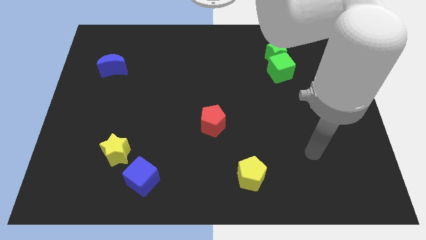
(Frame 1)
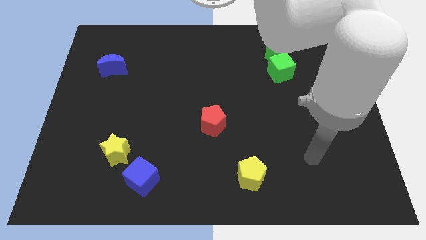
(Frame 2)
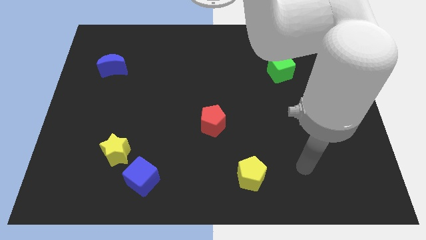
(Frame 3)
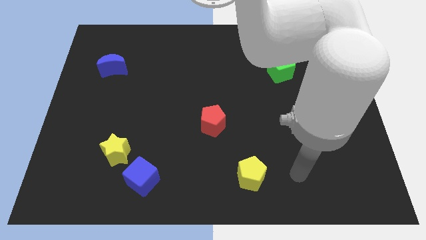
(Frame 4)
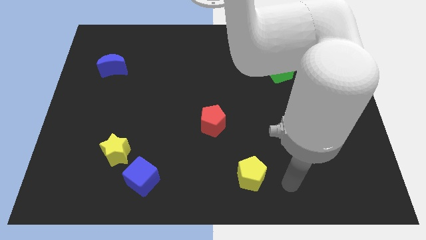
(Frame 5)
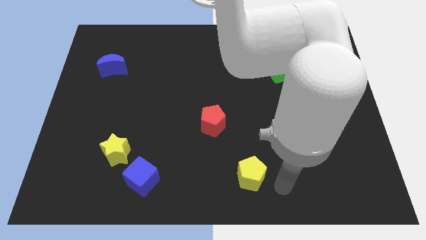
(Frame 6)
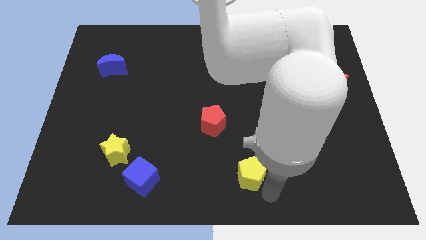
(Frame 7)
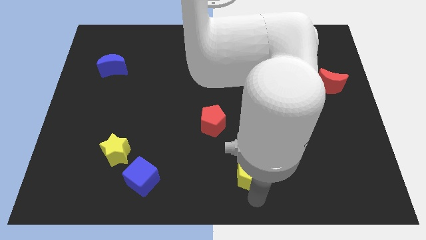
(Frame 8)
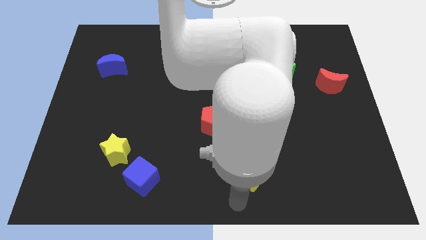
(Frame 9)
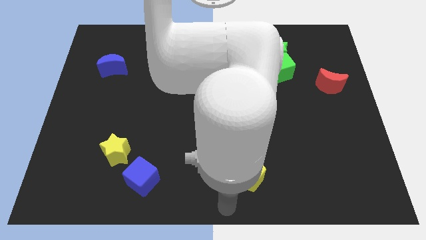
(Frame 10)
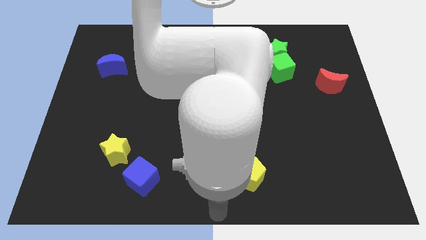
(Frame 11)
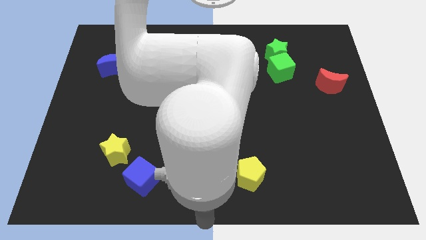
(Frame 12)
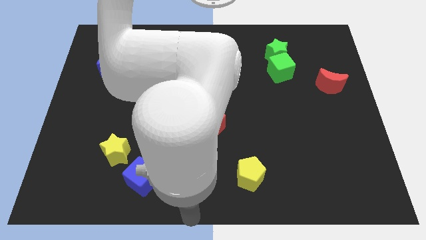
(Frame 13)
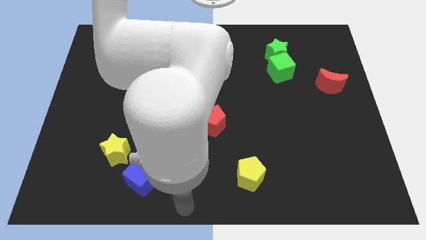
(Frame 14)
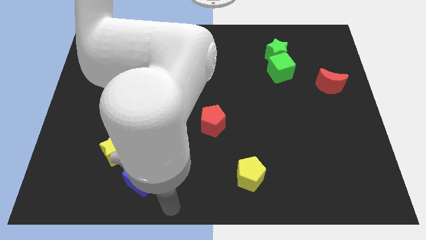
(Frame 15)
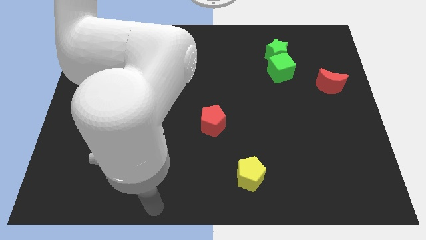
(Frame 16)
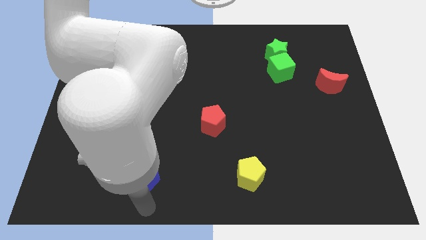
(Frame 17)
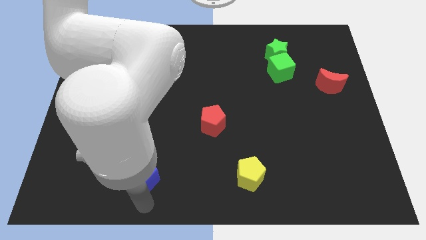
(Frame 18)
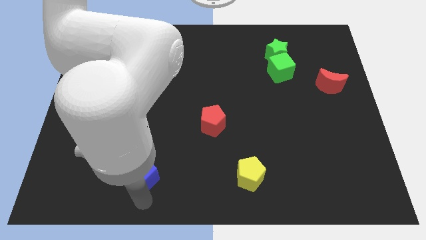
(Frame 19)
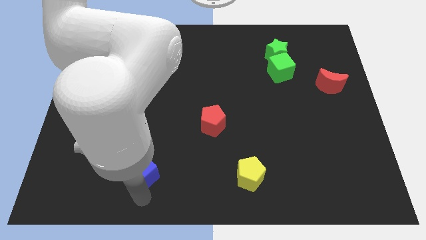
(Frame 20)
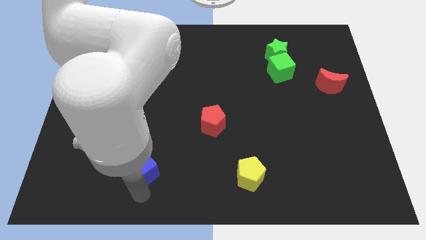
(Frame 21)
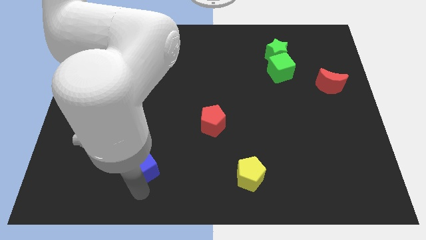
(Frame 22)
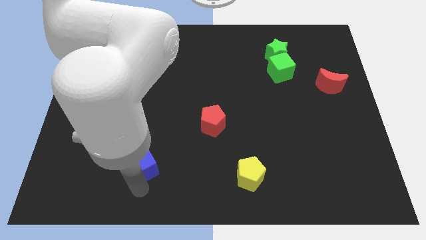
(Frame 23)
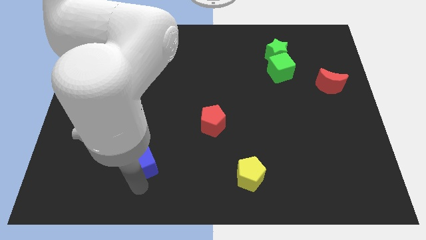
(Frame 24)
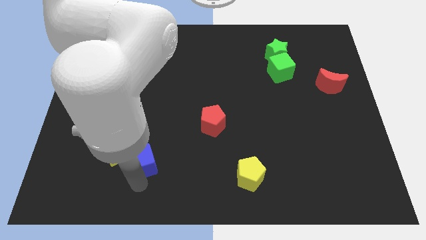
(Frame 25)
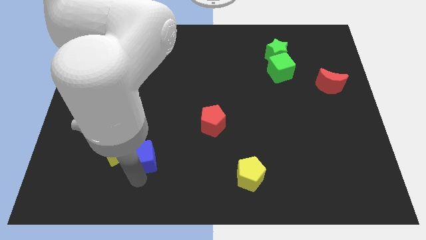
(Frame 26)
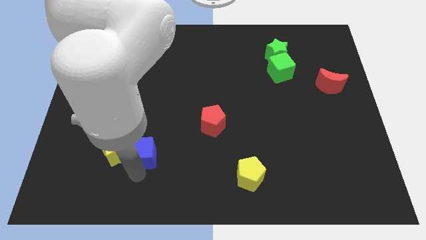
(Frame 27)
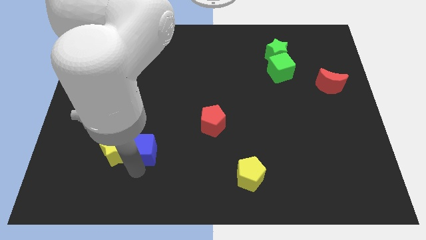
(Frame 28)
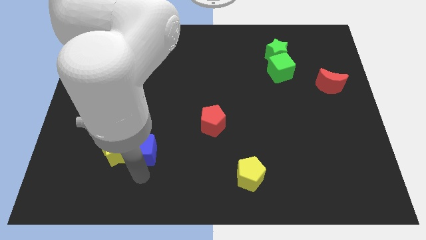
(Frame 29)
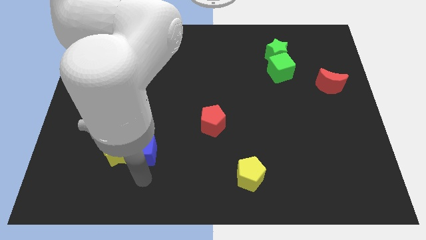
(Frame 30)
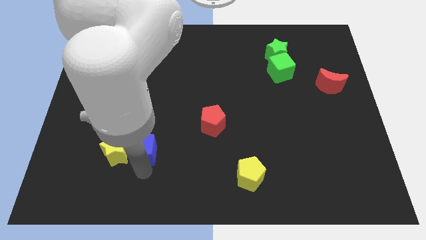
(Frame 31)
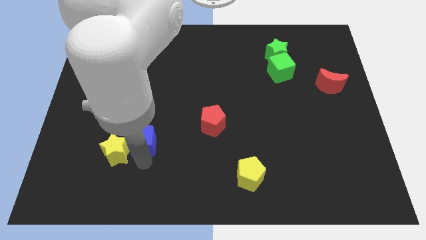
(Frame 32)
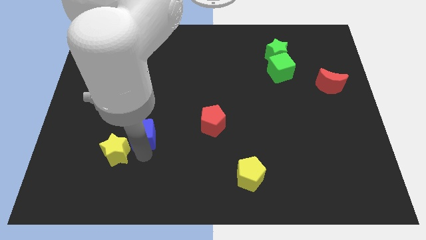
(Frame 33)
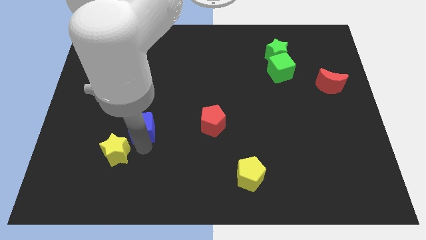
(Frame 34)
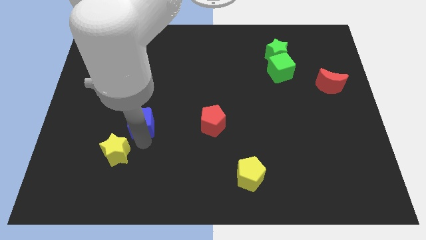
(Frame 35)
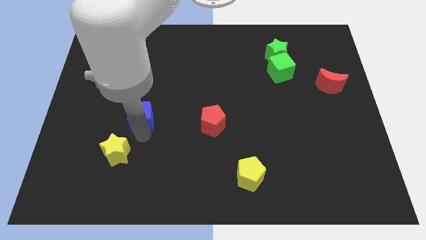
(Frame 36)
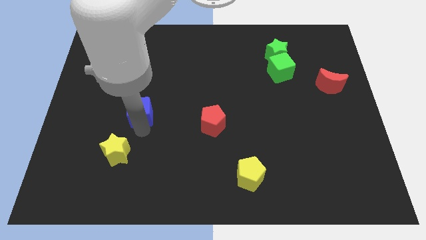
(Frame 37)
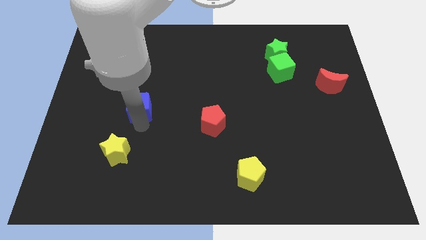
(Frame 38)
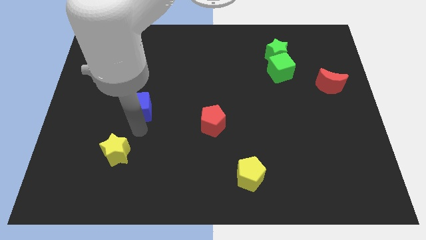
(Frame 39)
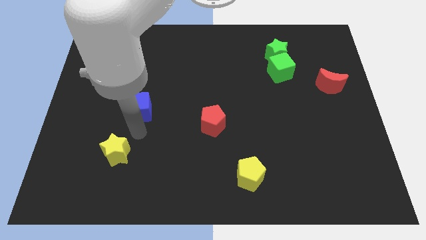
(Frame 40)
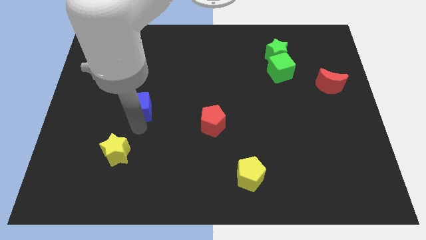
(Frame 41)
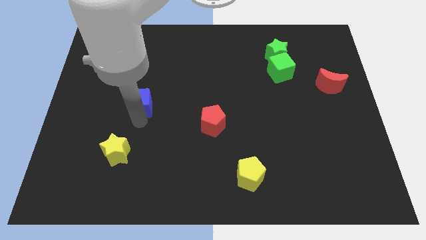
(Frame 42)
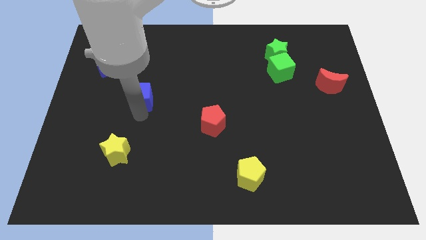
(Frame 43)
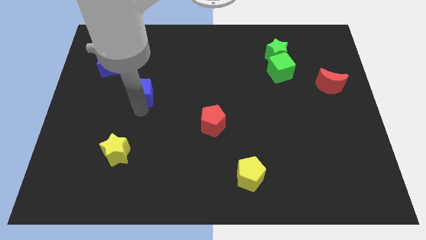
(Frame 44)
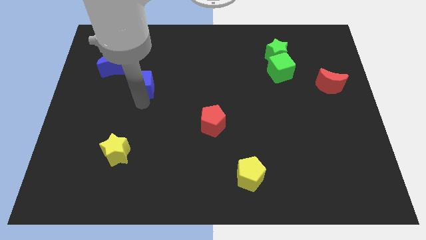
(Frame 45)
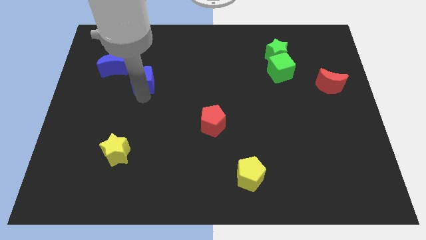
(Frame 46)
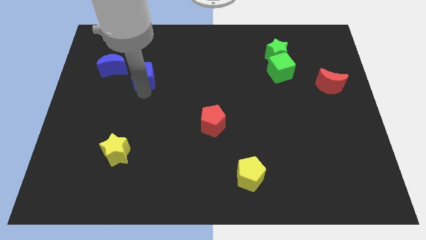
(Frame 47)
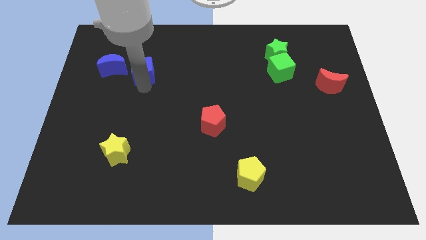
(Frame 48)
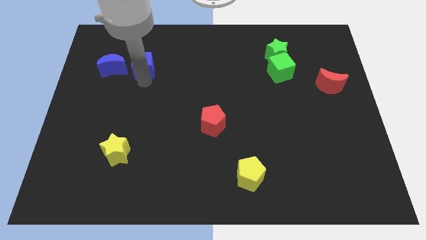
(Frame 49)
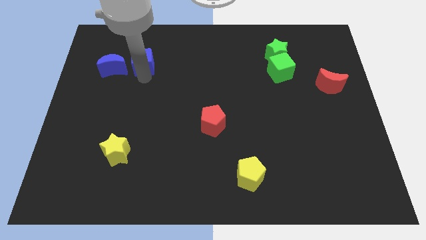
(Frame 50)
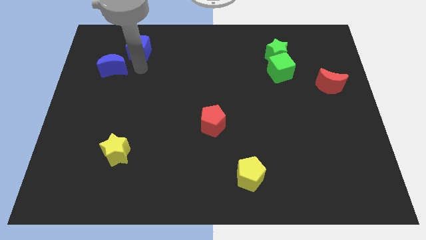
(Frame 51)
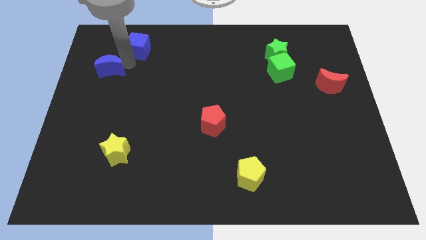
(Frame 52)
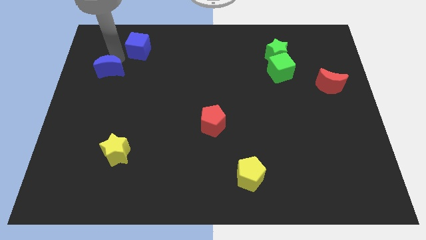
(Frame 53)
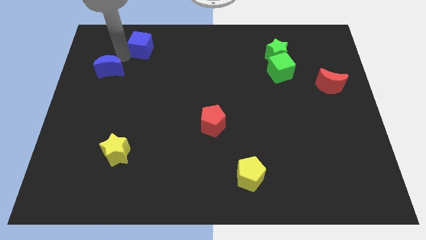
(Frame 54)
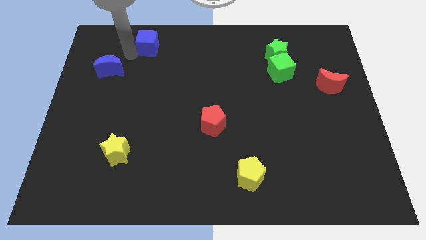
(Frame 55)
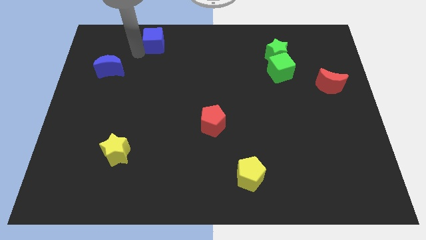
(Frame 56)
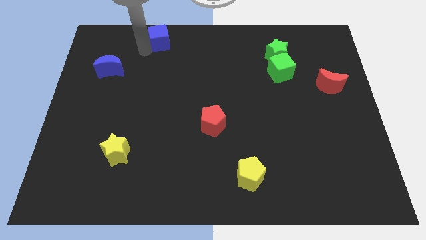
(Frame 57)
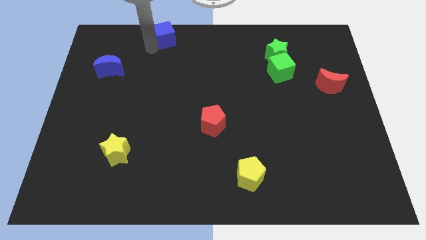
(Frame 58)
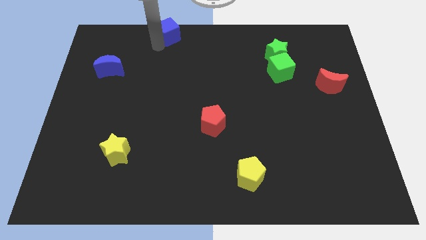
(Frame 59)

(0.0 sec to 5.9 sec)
put the blue cube to the towards your base
